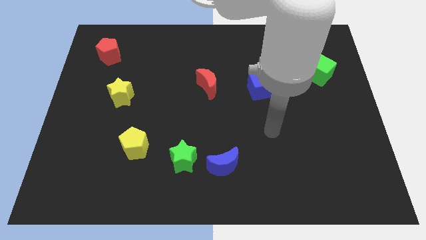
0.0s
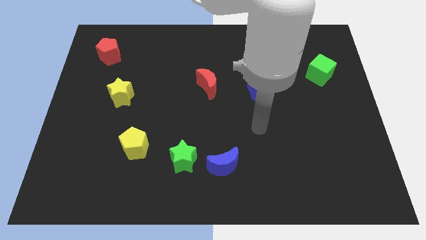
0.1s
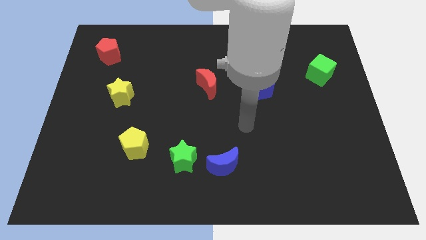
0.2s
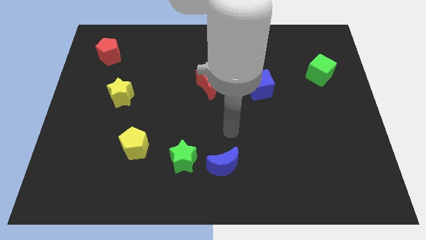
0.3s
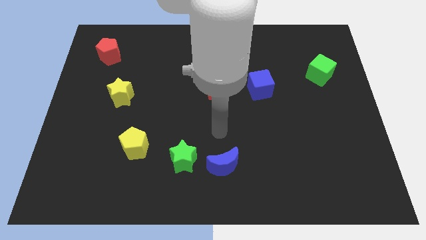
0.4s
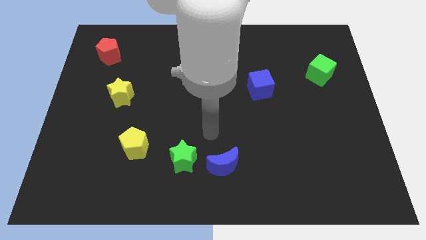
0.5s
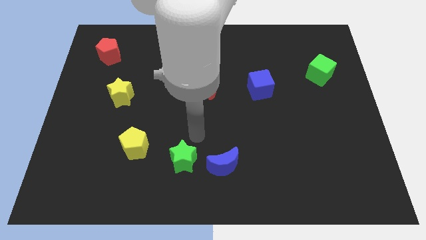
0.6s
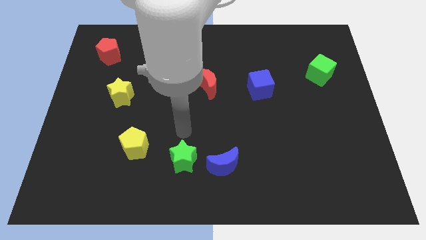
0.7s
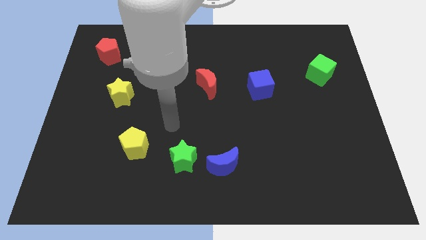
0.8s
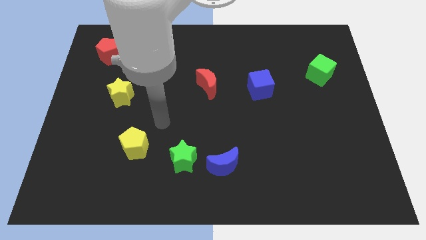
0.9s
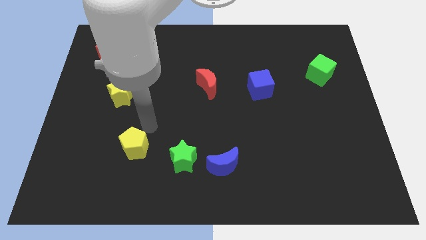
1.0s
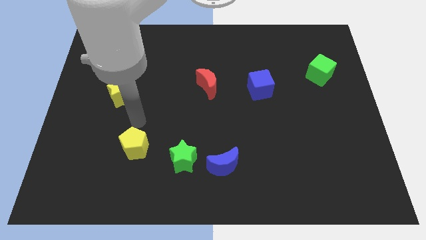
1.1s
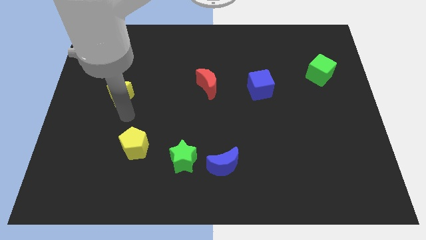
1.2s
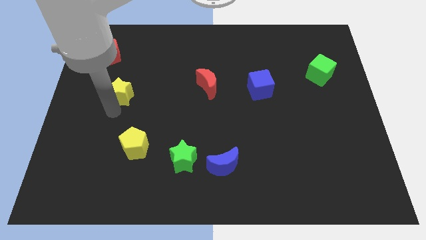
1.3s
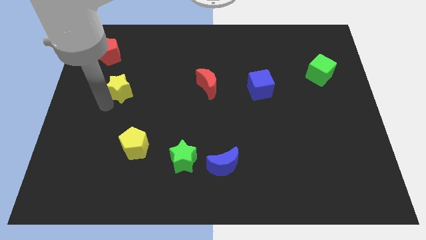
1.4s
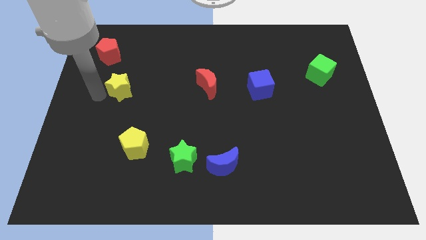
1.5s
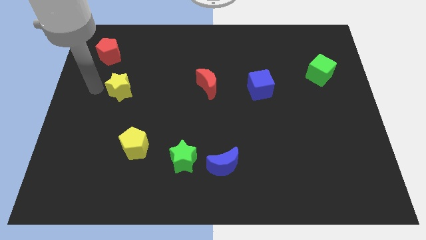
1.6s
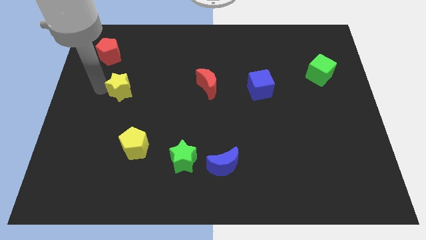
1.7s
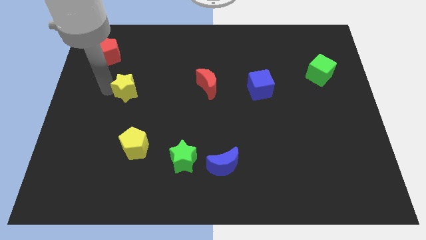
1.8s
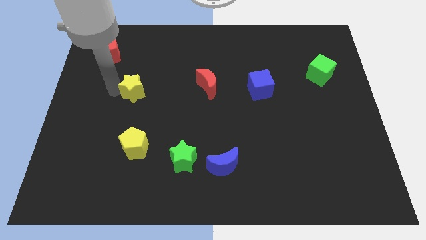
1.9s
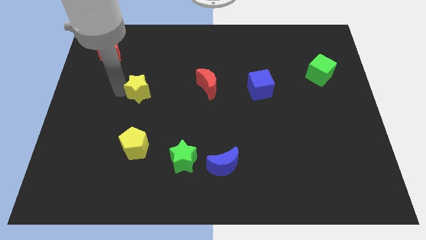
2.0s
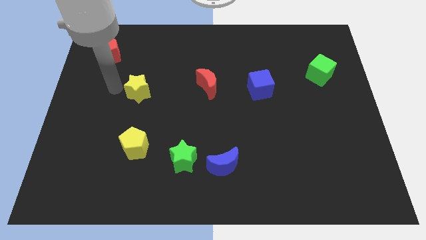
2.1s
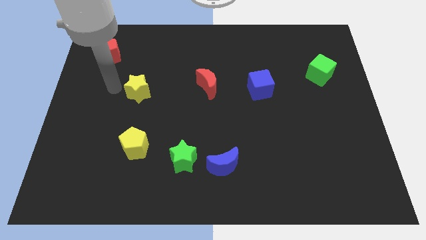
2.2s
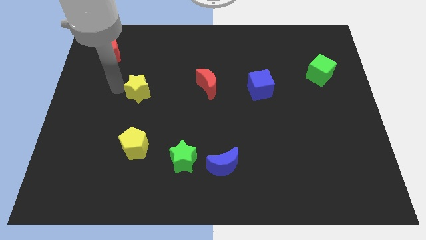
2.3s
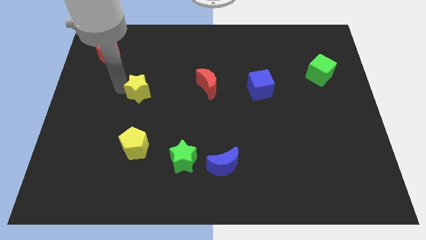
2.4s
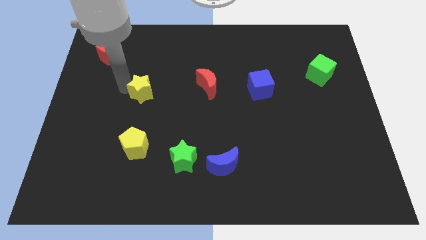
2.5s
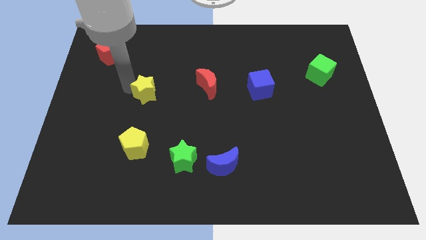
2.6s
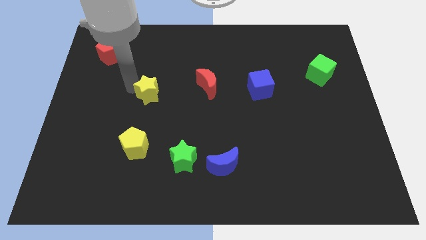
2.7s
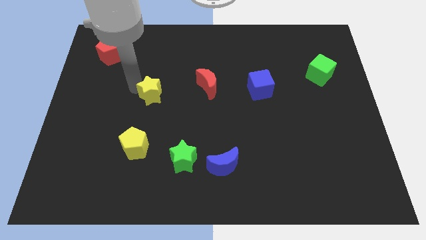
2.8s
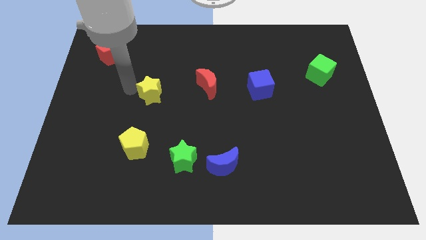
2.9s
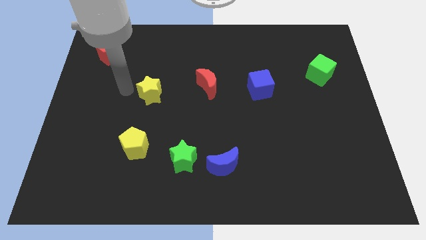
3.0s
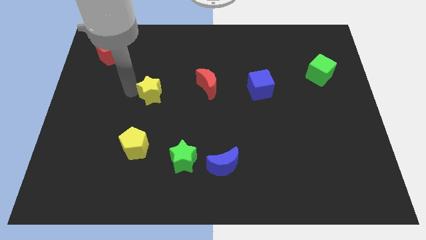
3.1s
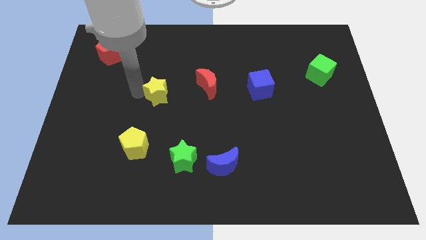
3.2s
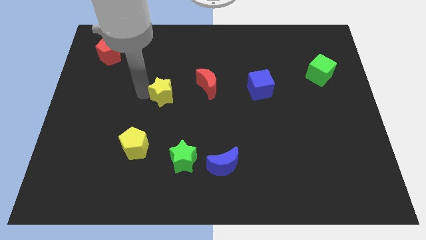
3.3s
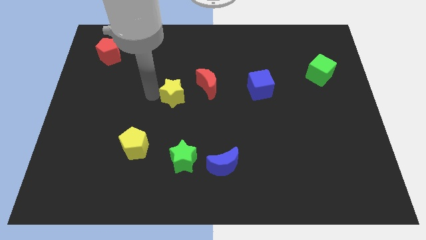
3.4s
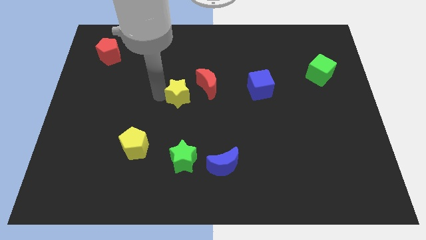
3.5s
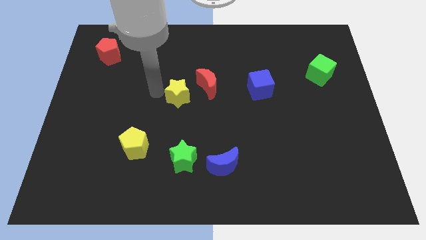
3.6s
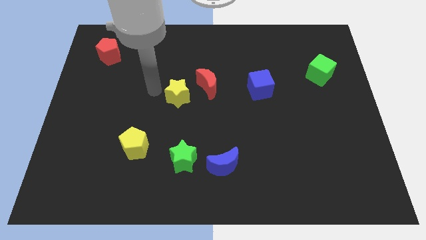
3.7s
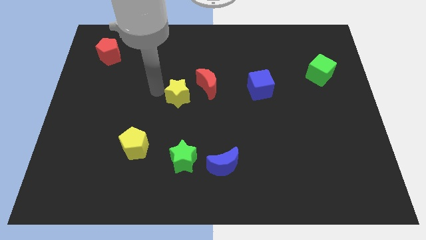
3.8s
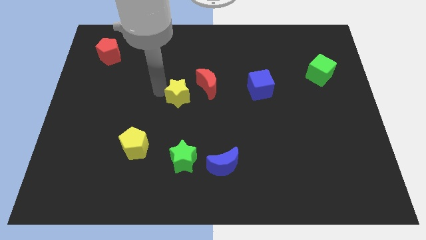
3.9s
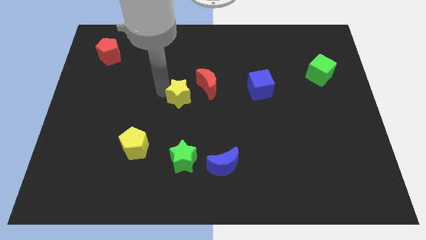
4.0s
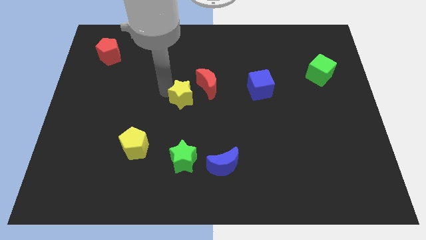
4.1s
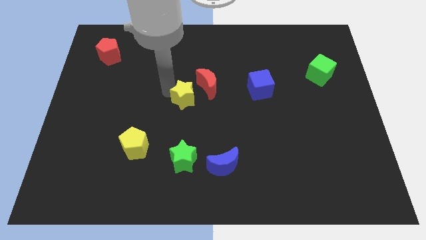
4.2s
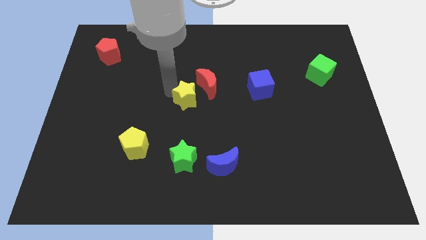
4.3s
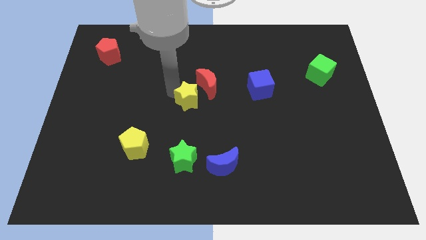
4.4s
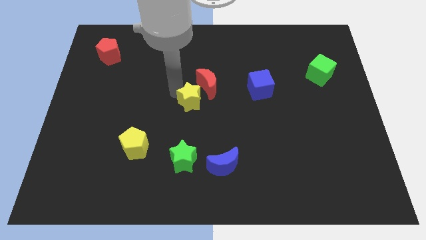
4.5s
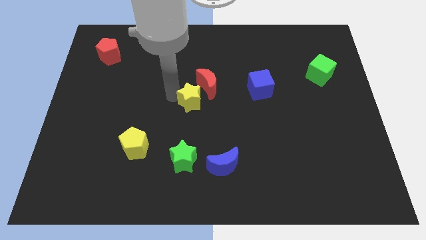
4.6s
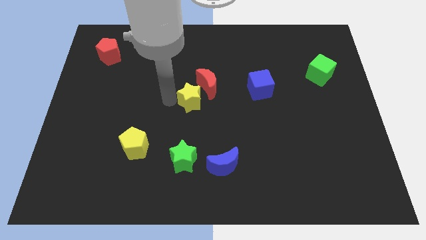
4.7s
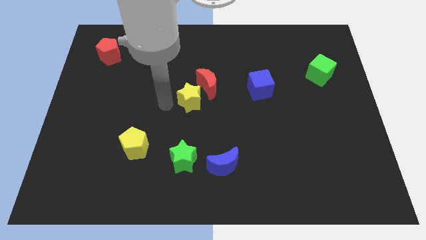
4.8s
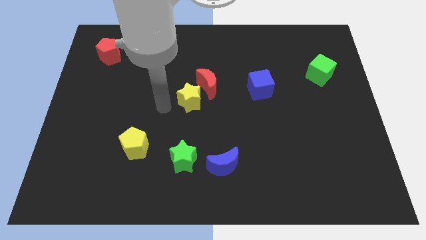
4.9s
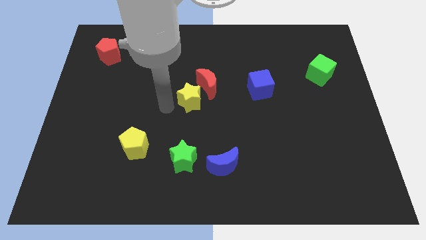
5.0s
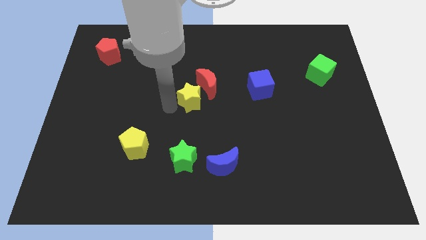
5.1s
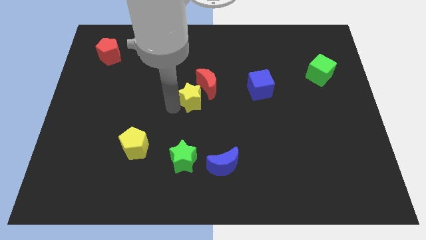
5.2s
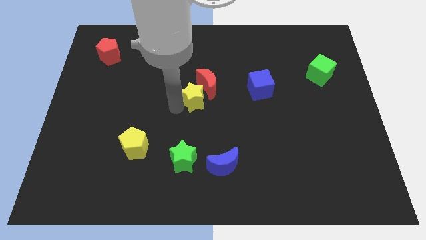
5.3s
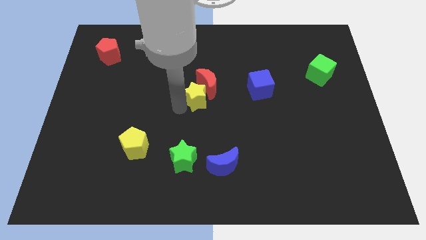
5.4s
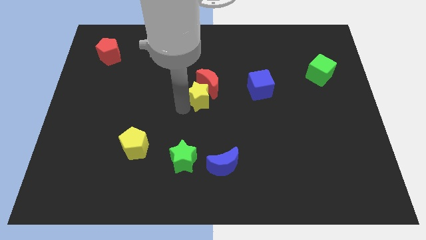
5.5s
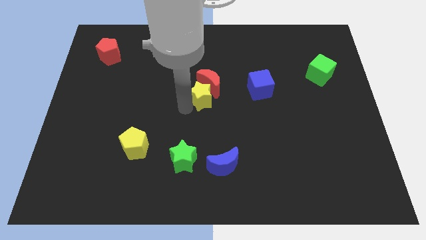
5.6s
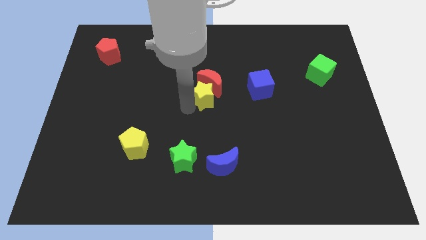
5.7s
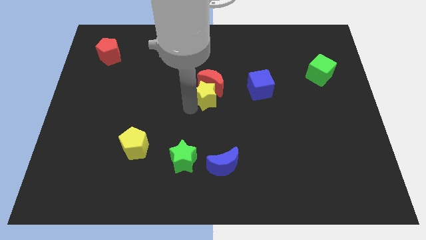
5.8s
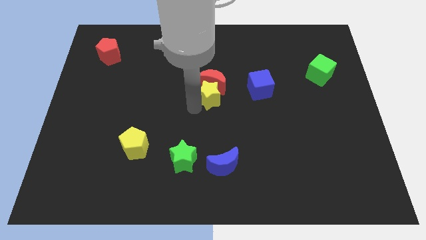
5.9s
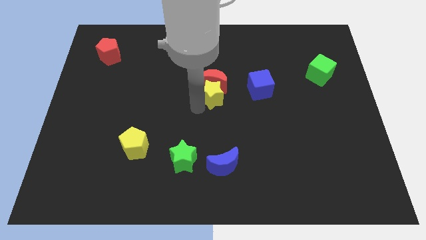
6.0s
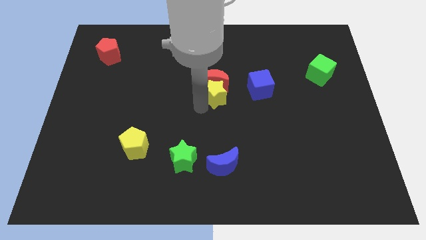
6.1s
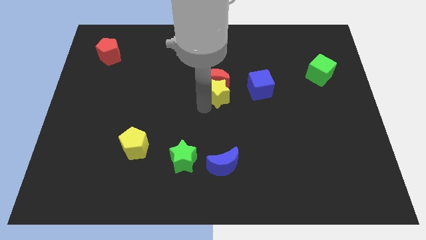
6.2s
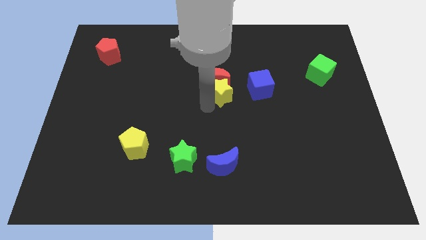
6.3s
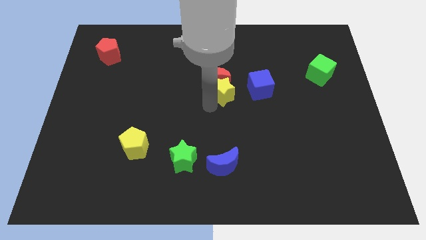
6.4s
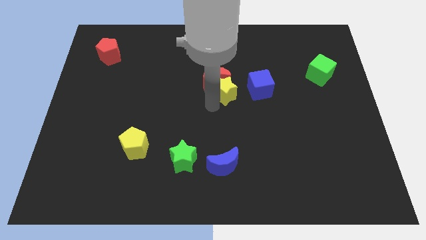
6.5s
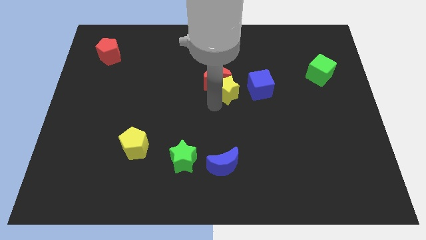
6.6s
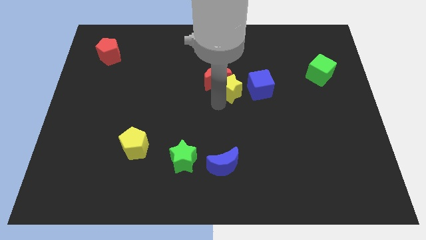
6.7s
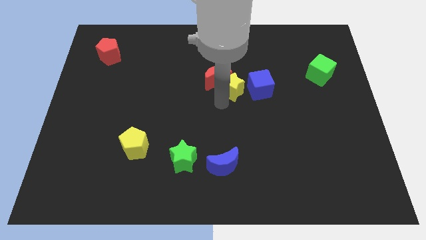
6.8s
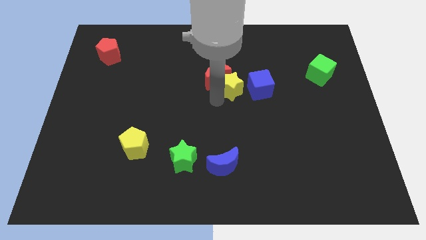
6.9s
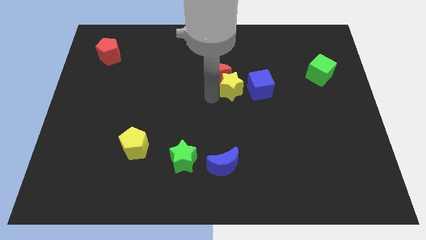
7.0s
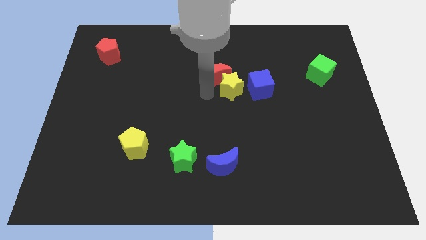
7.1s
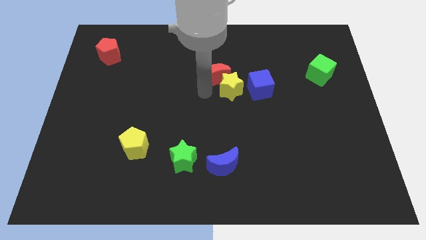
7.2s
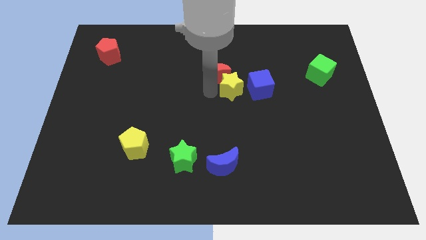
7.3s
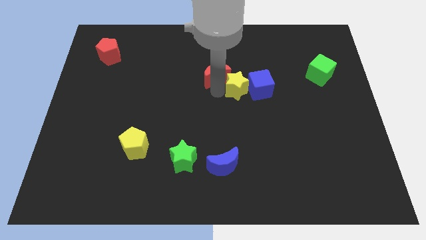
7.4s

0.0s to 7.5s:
move the yellow star to the blue cube

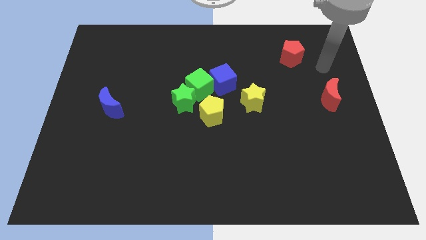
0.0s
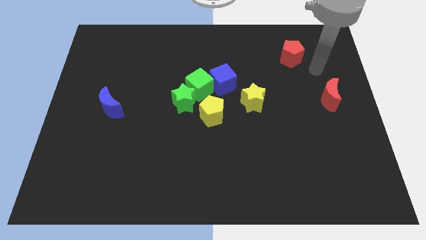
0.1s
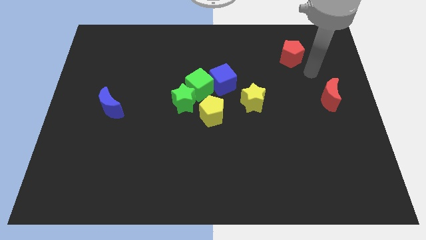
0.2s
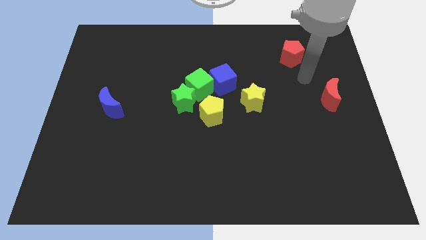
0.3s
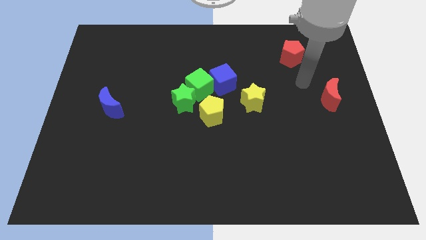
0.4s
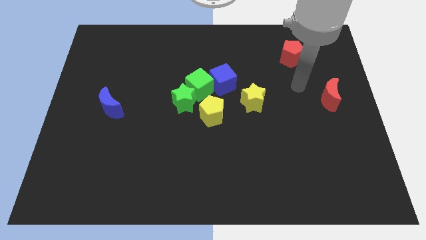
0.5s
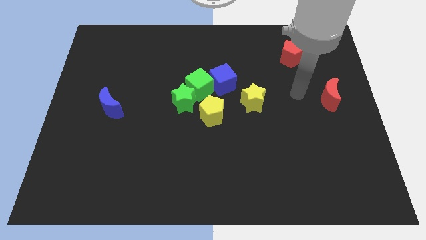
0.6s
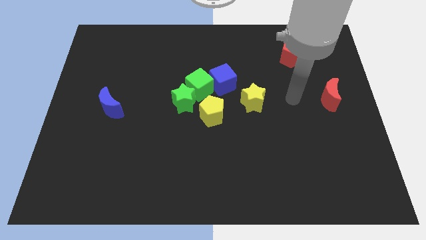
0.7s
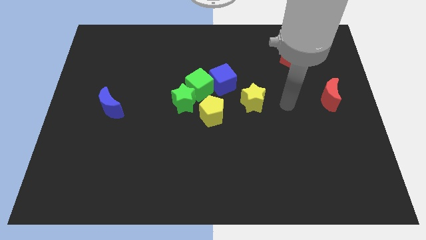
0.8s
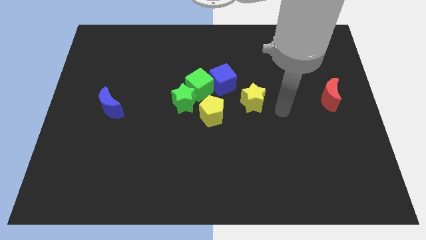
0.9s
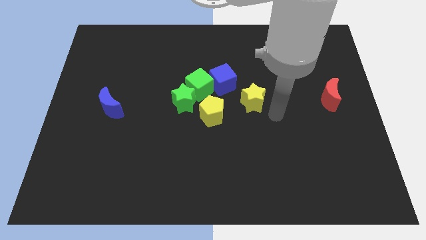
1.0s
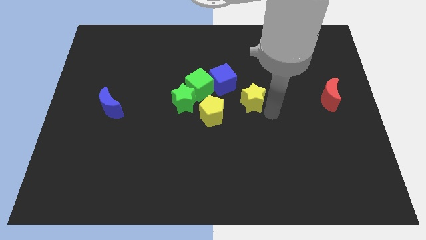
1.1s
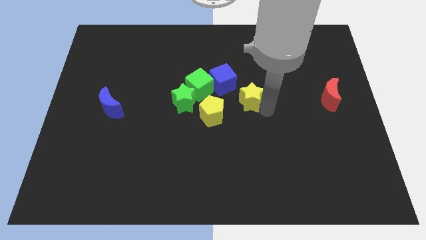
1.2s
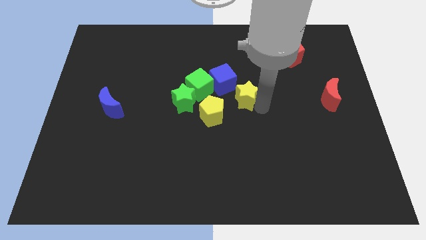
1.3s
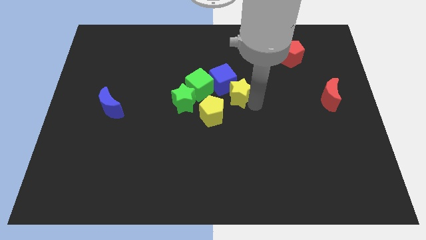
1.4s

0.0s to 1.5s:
push the yellow star next to the blue cube
